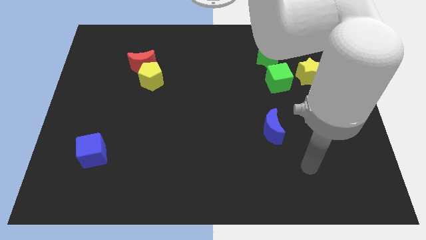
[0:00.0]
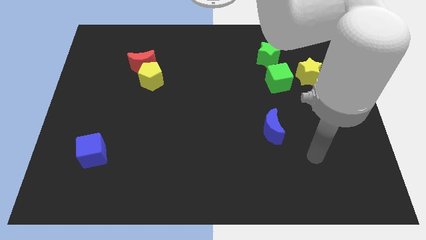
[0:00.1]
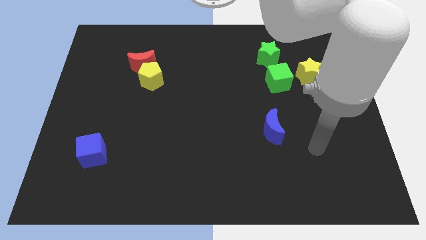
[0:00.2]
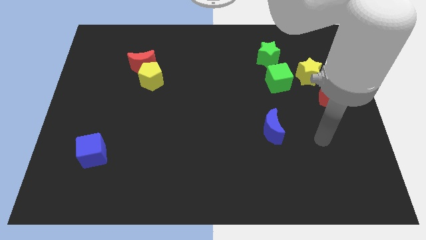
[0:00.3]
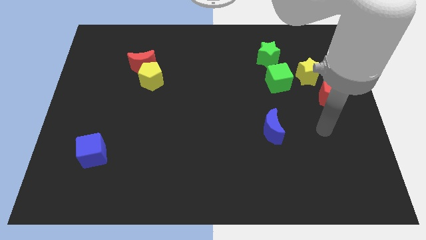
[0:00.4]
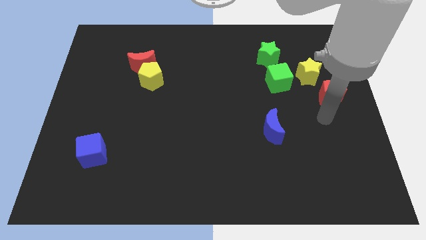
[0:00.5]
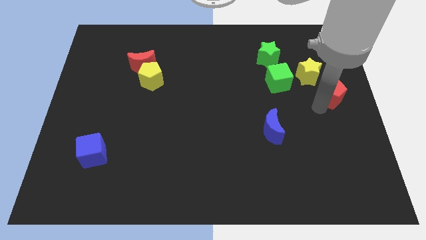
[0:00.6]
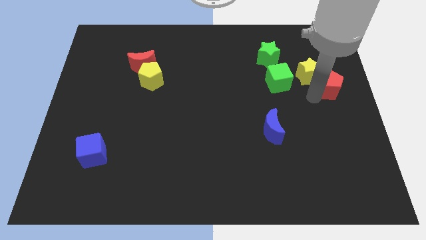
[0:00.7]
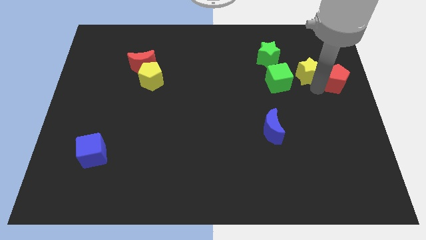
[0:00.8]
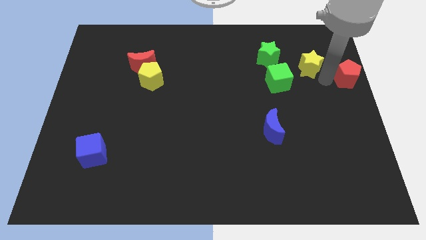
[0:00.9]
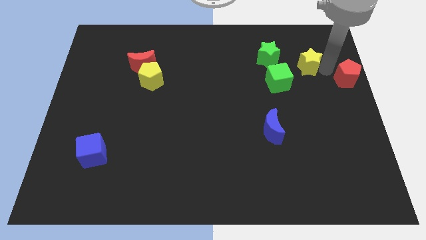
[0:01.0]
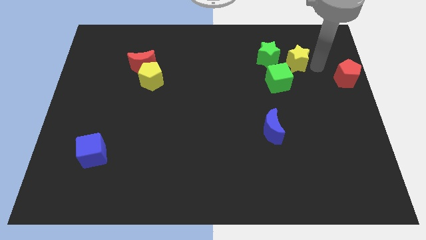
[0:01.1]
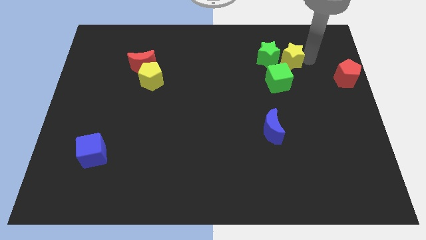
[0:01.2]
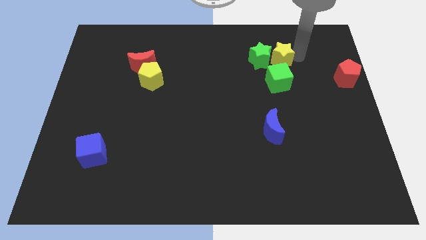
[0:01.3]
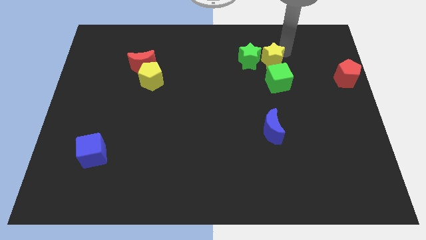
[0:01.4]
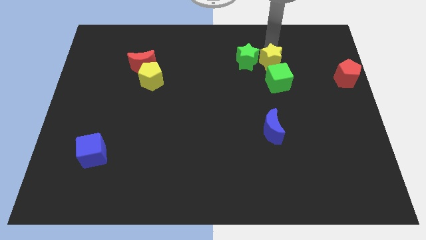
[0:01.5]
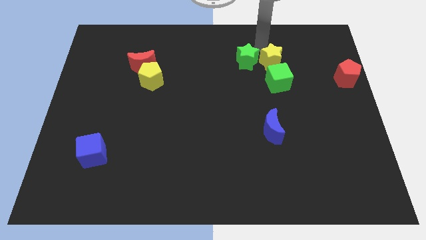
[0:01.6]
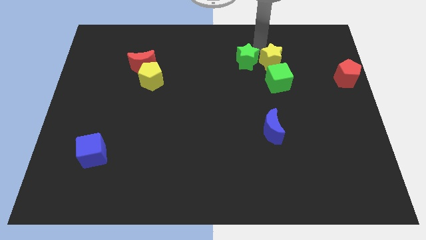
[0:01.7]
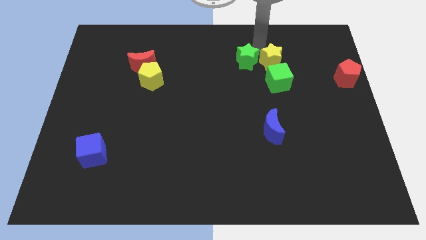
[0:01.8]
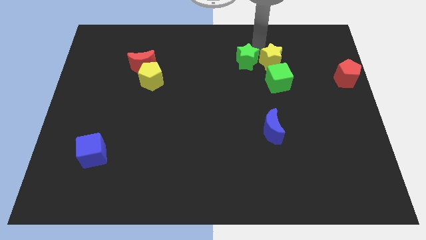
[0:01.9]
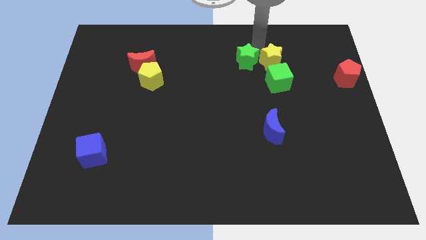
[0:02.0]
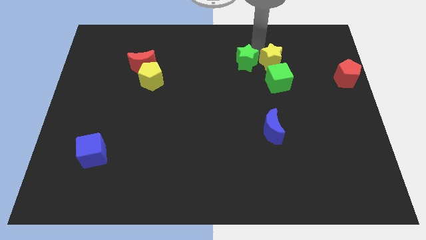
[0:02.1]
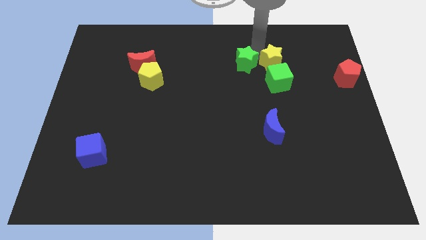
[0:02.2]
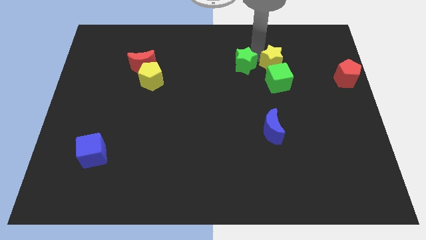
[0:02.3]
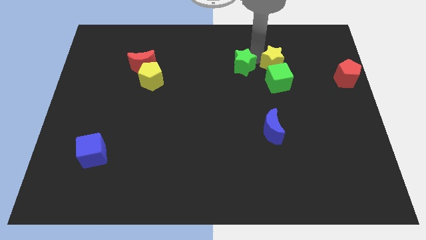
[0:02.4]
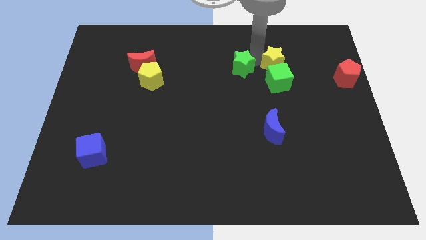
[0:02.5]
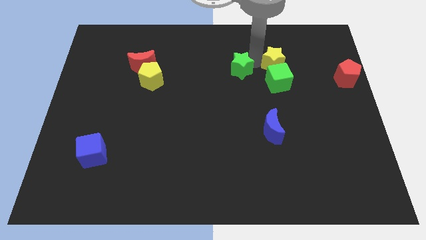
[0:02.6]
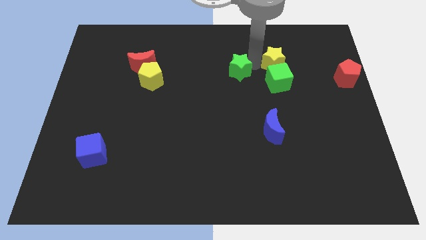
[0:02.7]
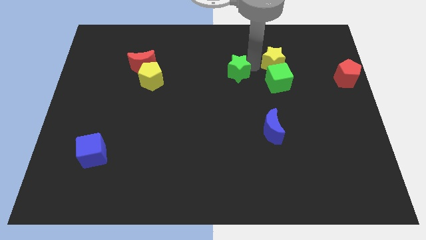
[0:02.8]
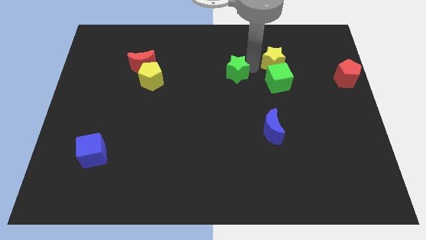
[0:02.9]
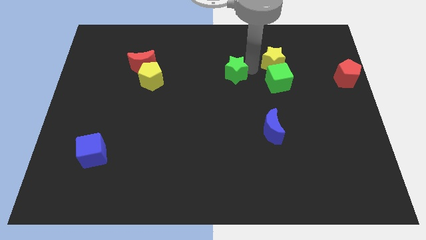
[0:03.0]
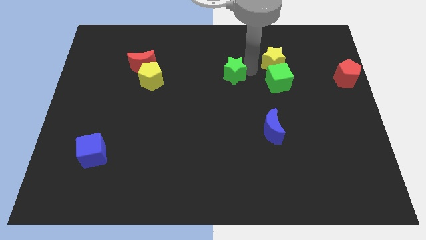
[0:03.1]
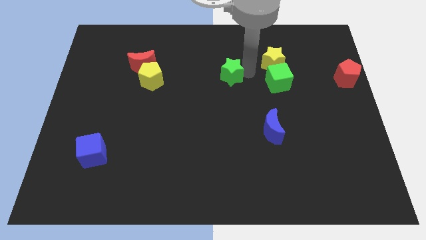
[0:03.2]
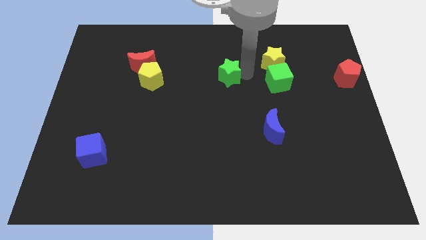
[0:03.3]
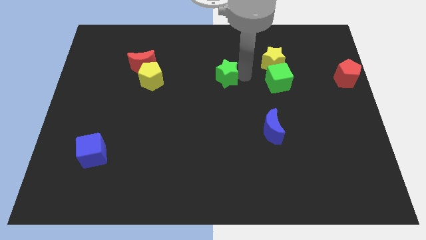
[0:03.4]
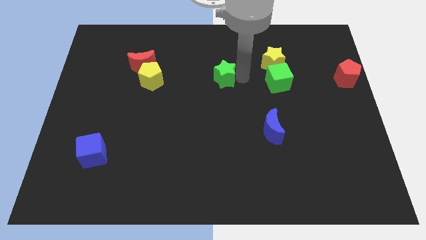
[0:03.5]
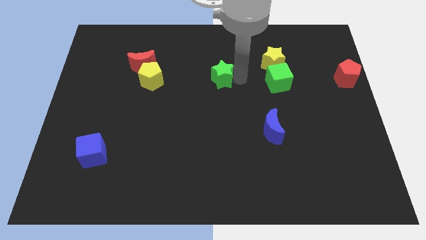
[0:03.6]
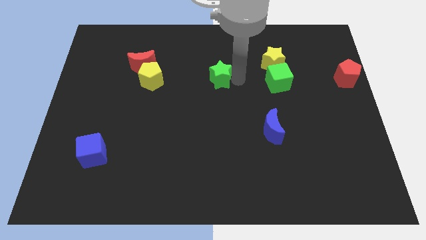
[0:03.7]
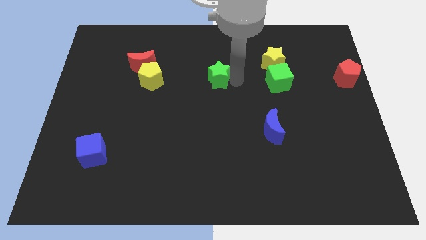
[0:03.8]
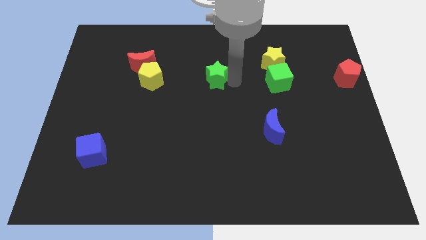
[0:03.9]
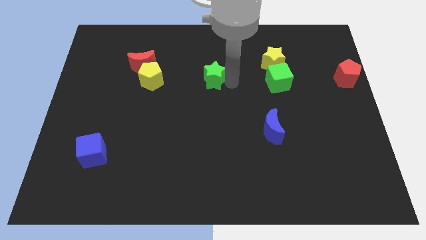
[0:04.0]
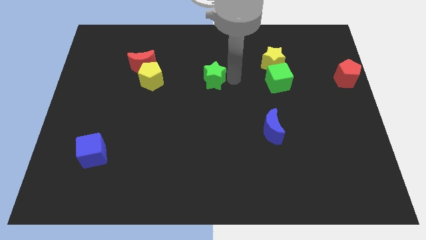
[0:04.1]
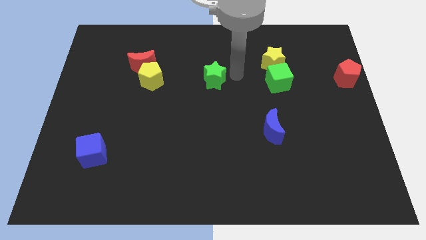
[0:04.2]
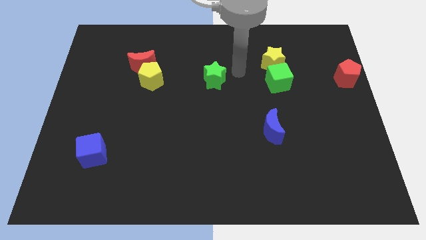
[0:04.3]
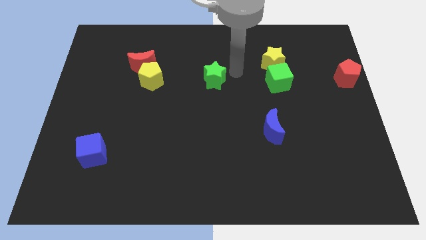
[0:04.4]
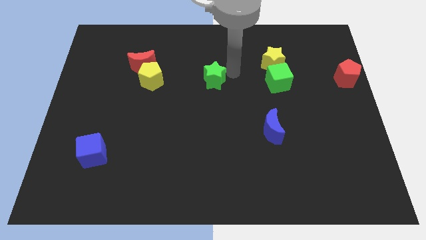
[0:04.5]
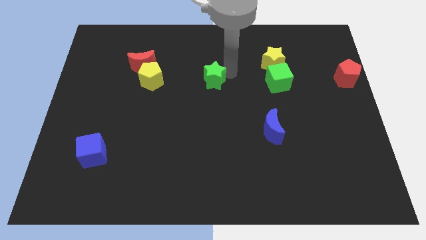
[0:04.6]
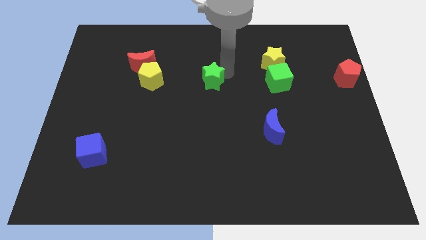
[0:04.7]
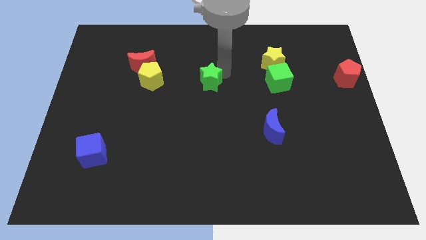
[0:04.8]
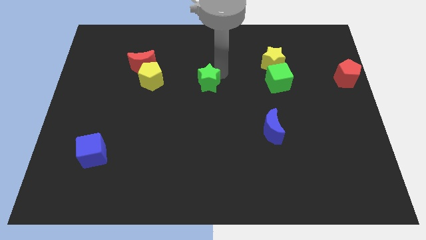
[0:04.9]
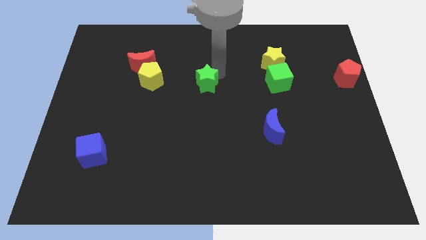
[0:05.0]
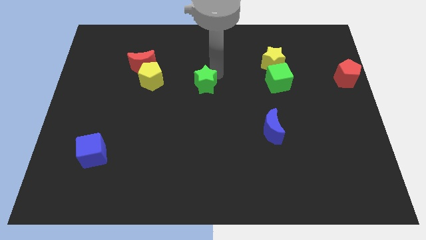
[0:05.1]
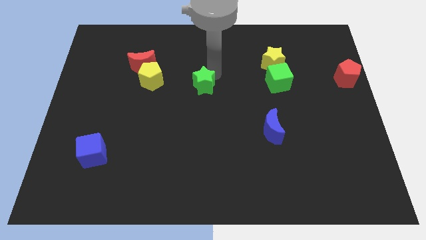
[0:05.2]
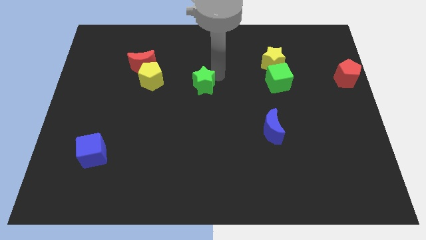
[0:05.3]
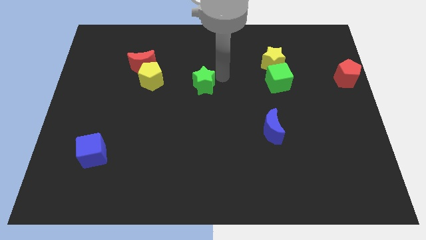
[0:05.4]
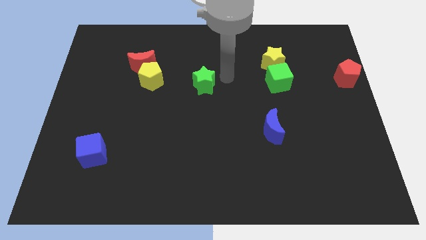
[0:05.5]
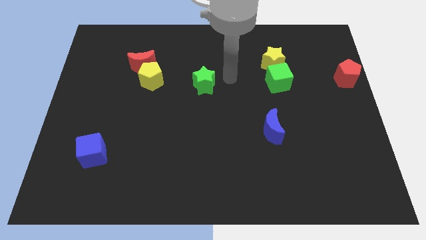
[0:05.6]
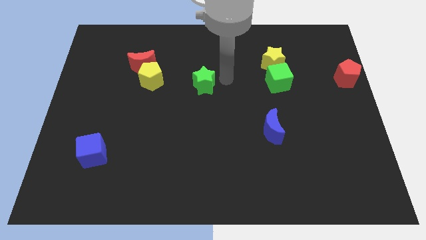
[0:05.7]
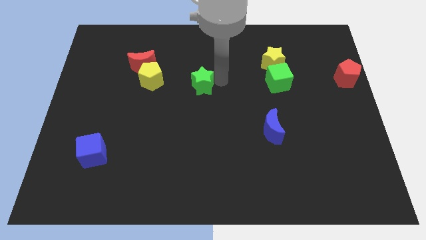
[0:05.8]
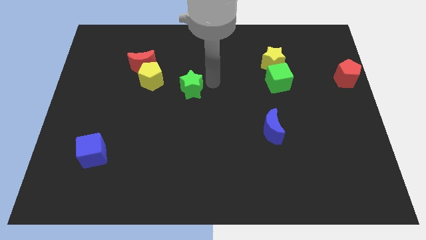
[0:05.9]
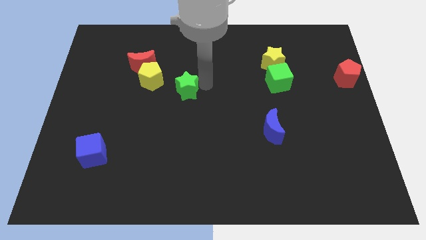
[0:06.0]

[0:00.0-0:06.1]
move the green star diagonally down and to the right of the yellow pentagon

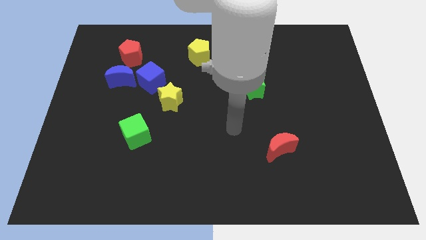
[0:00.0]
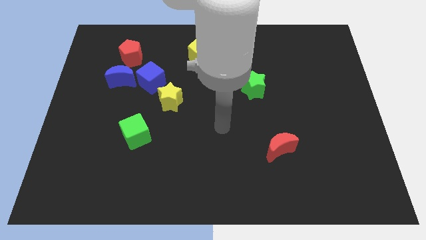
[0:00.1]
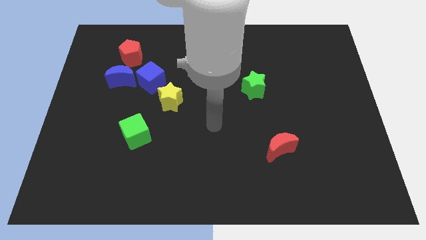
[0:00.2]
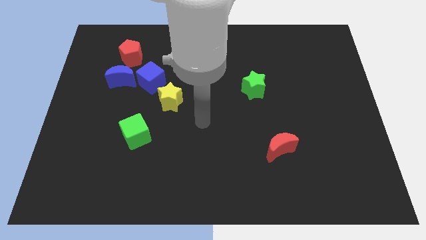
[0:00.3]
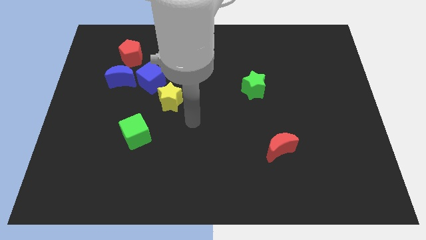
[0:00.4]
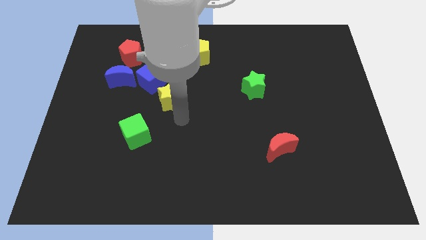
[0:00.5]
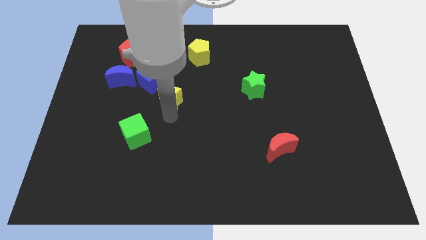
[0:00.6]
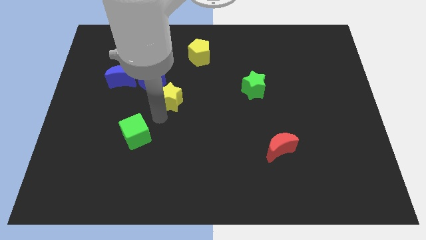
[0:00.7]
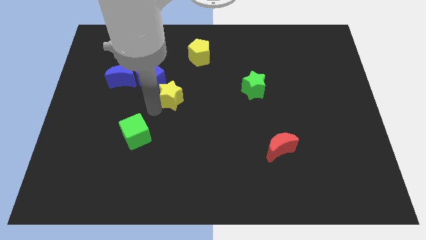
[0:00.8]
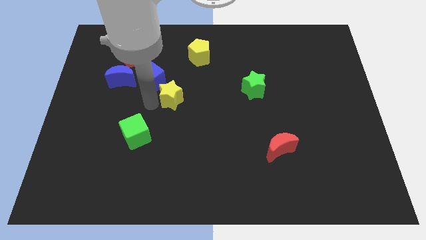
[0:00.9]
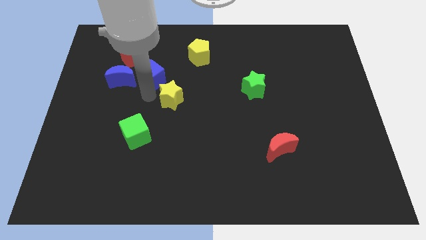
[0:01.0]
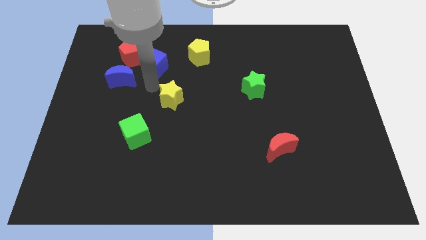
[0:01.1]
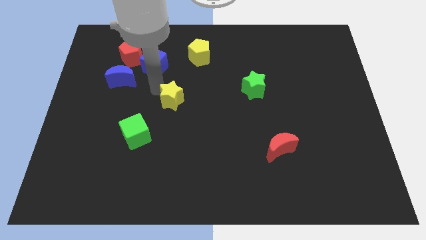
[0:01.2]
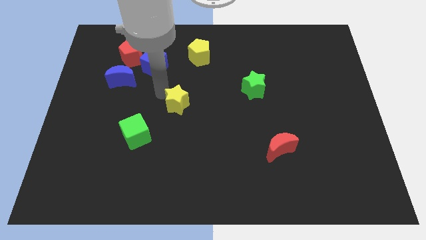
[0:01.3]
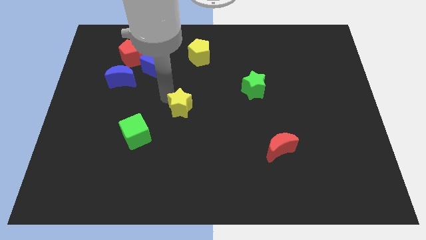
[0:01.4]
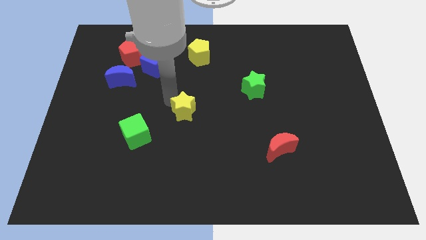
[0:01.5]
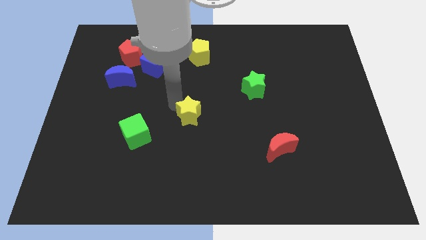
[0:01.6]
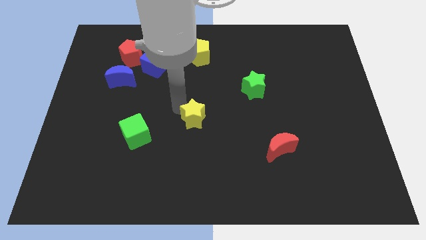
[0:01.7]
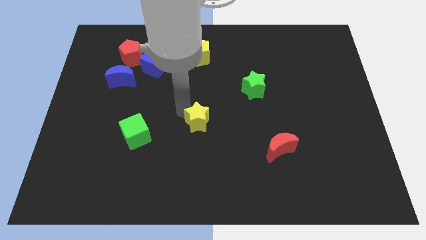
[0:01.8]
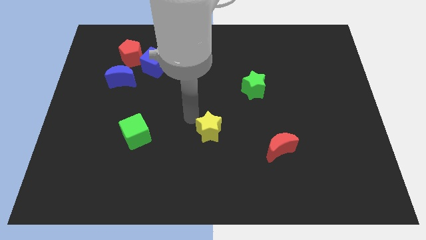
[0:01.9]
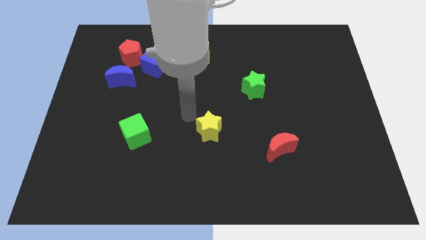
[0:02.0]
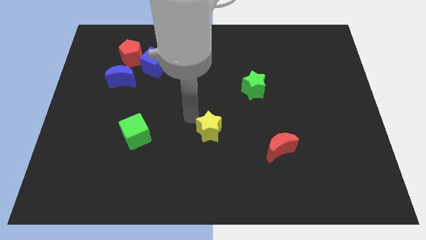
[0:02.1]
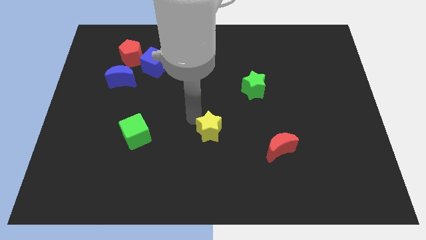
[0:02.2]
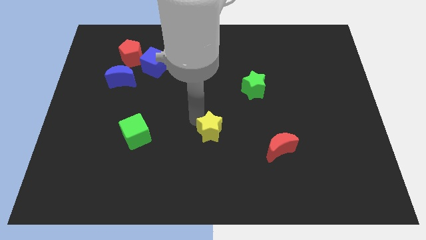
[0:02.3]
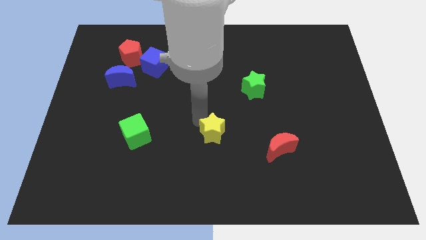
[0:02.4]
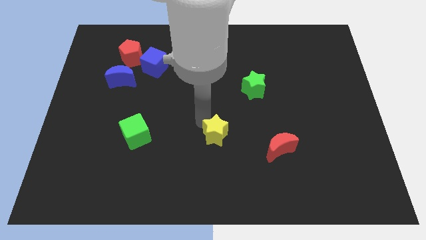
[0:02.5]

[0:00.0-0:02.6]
push the yellow star to the left side of the red moon
